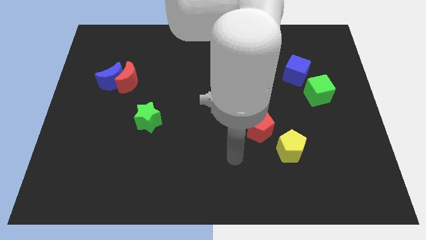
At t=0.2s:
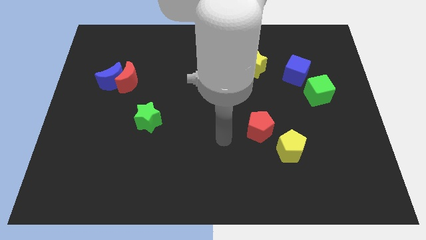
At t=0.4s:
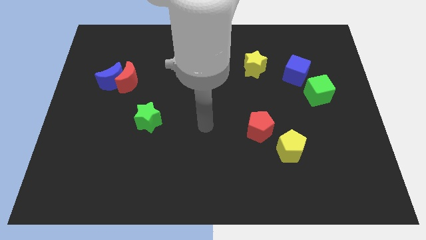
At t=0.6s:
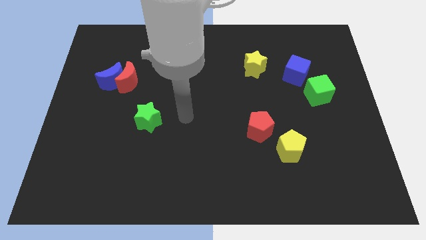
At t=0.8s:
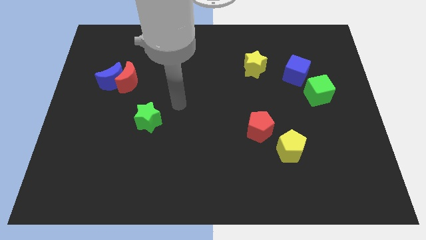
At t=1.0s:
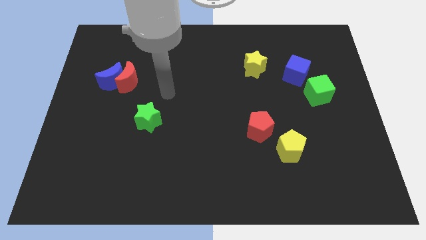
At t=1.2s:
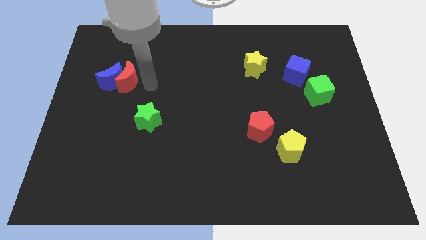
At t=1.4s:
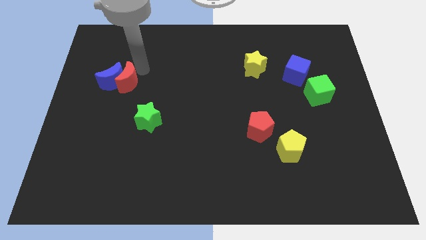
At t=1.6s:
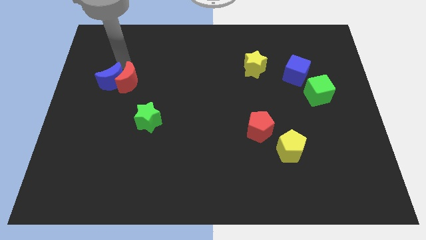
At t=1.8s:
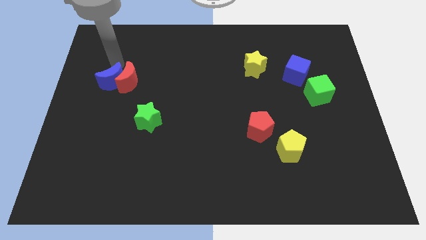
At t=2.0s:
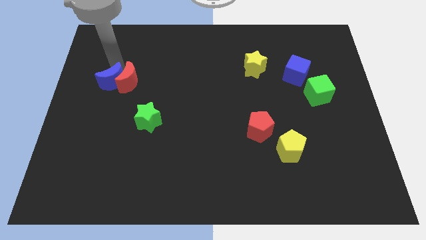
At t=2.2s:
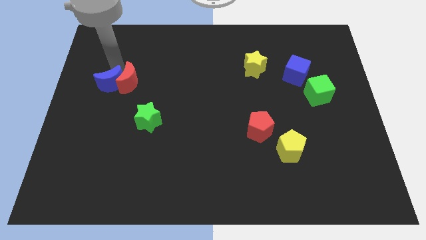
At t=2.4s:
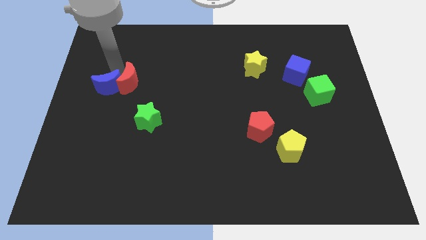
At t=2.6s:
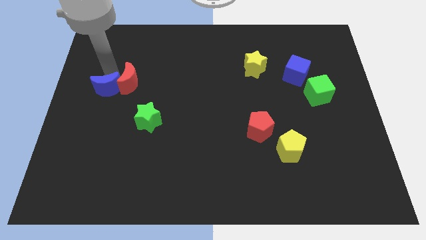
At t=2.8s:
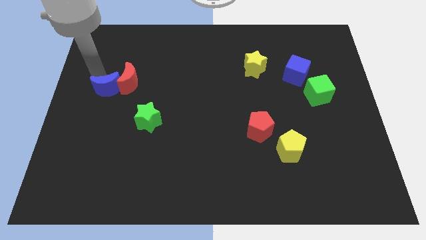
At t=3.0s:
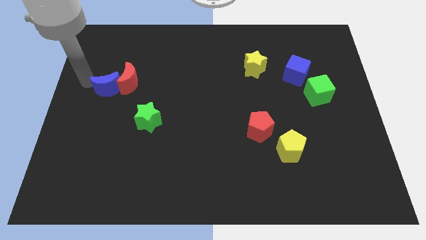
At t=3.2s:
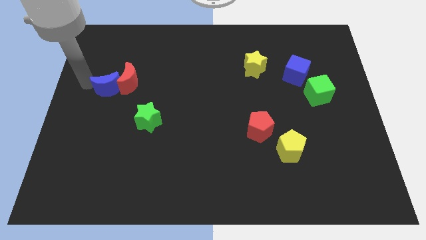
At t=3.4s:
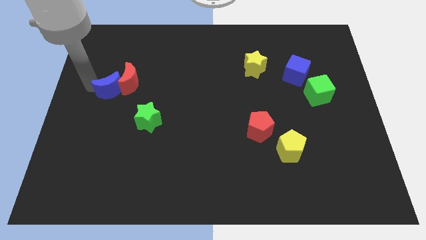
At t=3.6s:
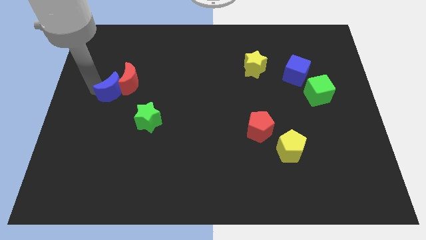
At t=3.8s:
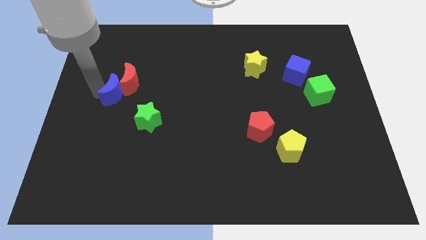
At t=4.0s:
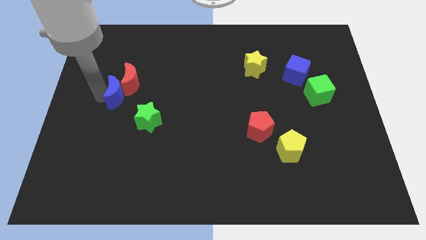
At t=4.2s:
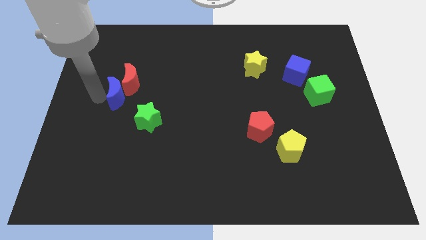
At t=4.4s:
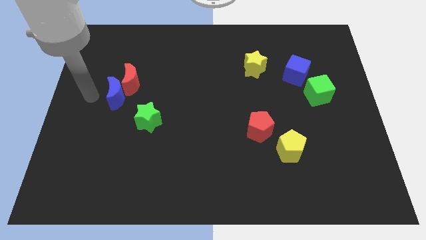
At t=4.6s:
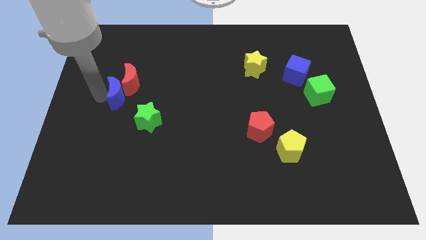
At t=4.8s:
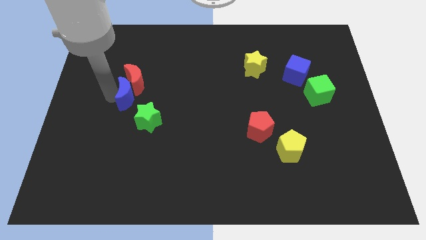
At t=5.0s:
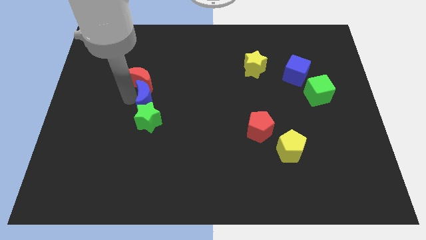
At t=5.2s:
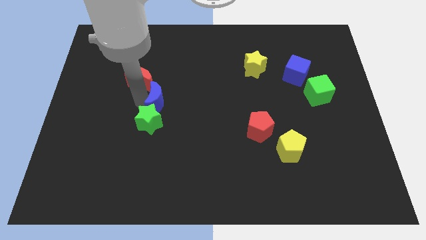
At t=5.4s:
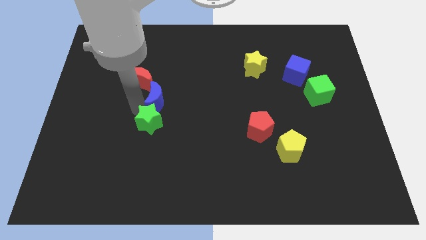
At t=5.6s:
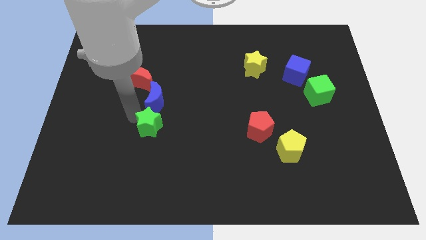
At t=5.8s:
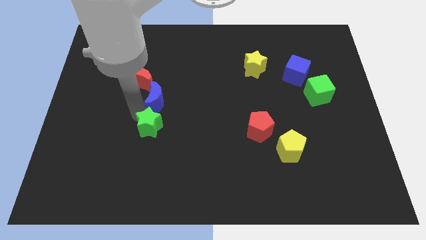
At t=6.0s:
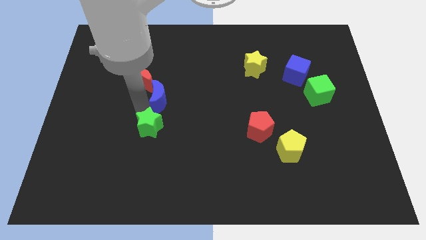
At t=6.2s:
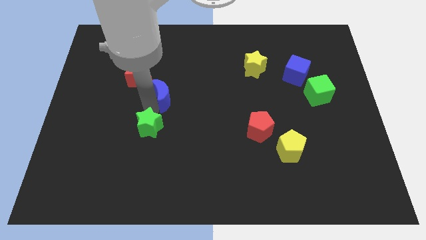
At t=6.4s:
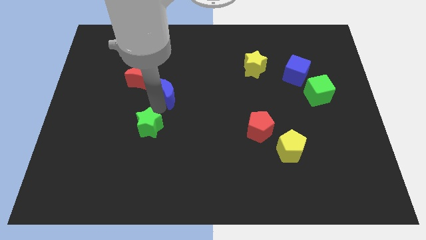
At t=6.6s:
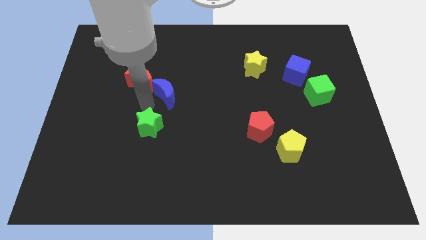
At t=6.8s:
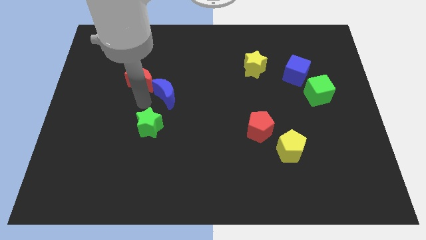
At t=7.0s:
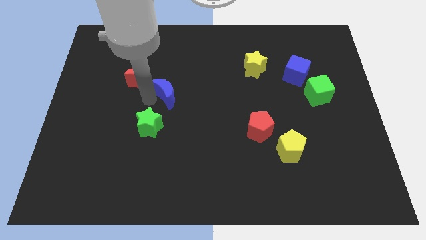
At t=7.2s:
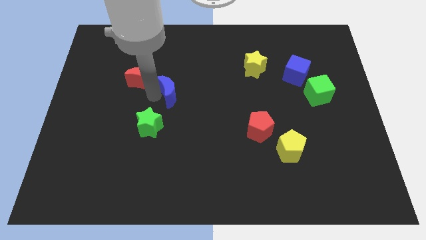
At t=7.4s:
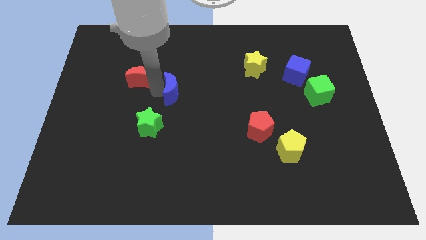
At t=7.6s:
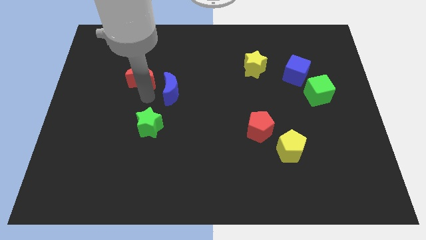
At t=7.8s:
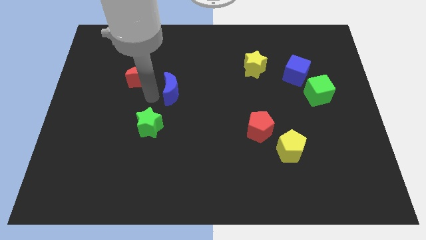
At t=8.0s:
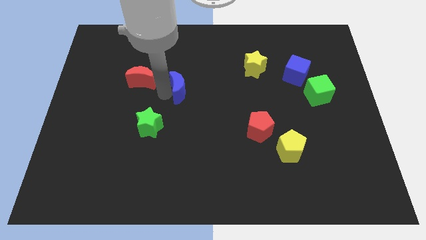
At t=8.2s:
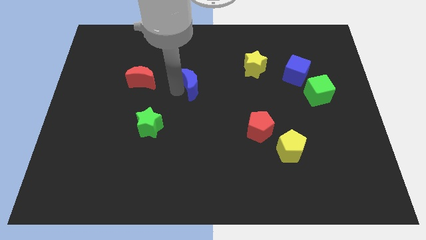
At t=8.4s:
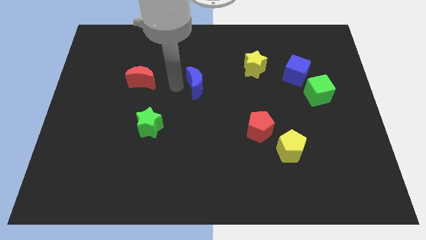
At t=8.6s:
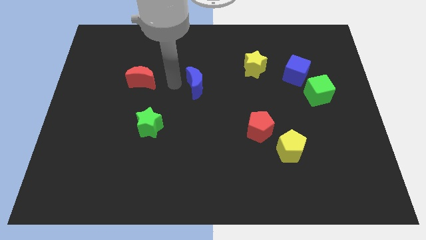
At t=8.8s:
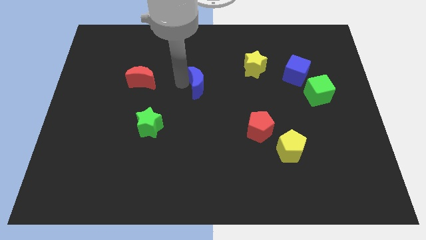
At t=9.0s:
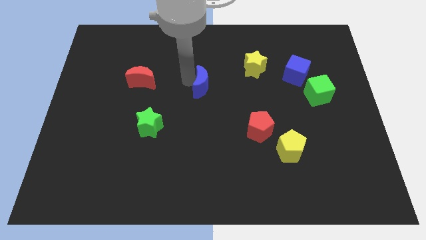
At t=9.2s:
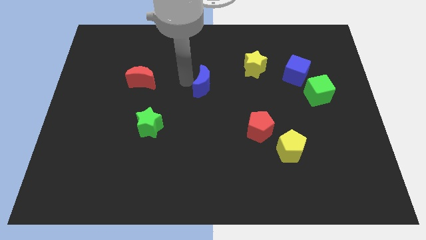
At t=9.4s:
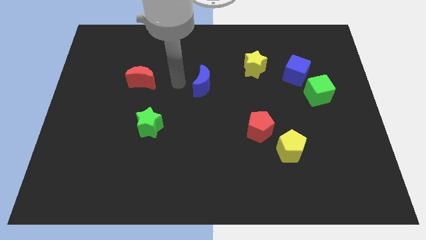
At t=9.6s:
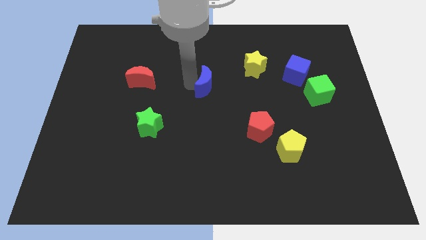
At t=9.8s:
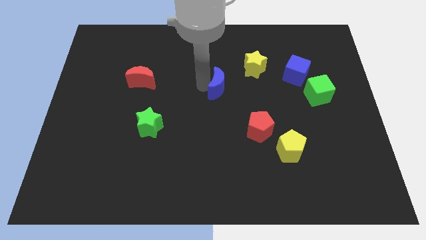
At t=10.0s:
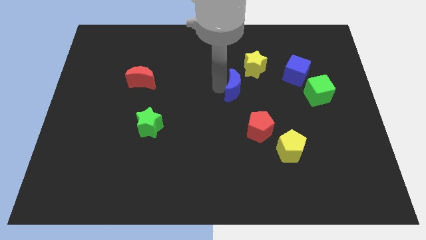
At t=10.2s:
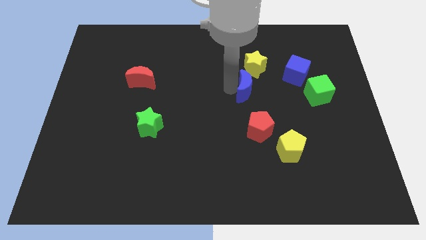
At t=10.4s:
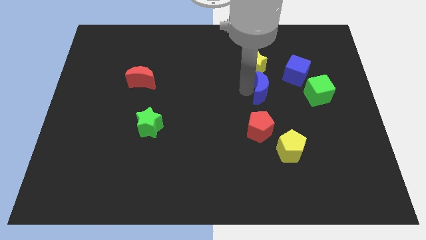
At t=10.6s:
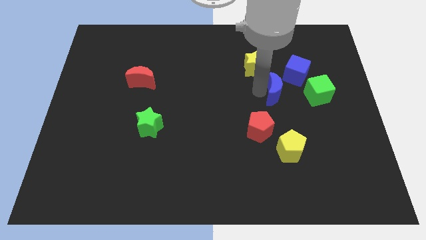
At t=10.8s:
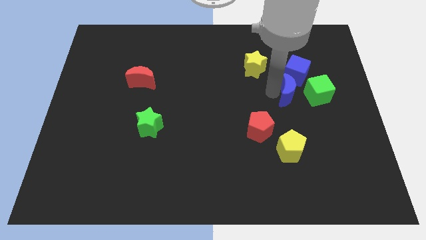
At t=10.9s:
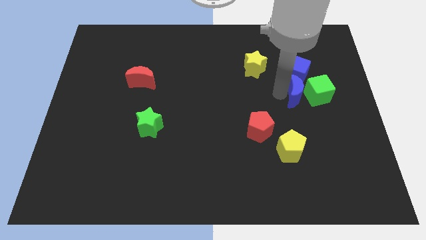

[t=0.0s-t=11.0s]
put the blue moon next to the green cube

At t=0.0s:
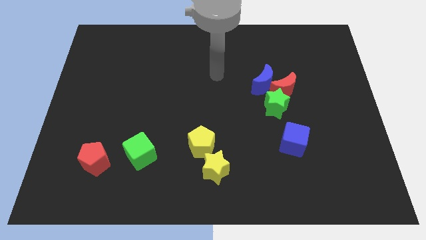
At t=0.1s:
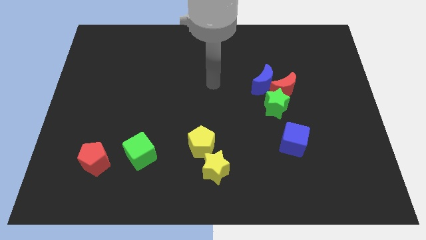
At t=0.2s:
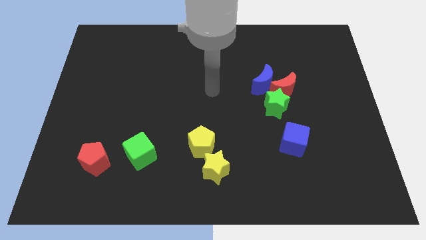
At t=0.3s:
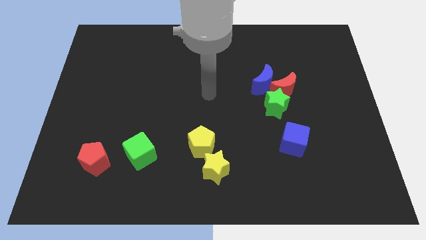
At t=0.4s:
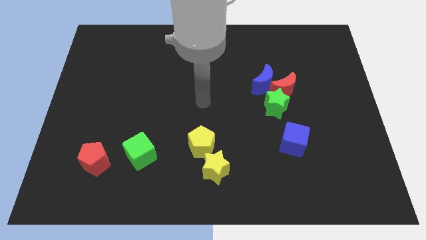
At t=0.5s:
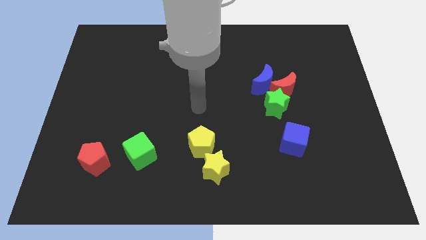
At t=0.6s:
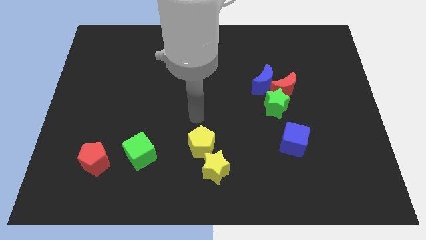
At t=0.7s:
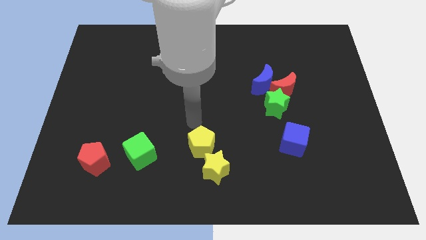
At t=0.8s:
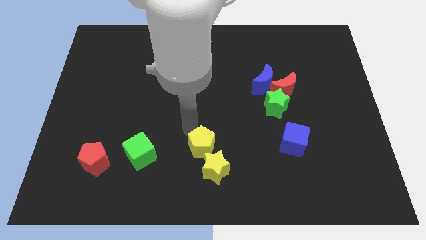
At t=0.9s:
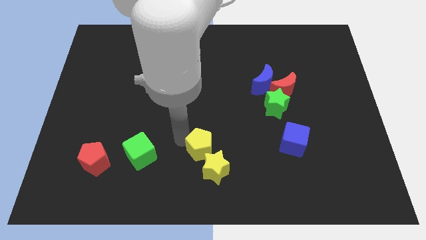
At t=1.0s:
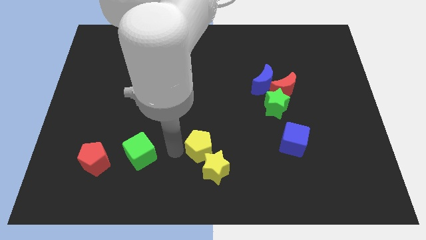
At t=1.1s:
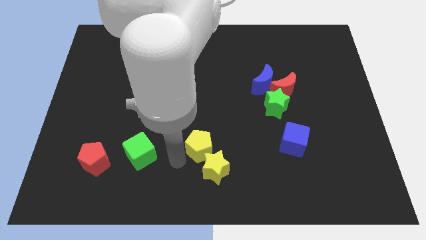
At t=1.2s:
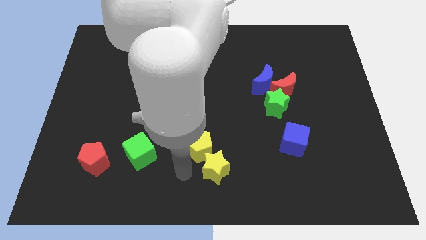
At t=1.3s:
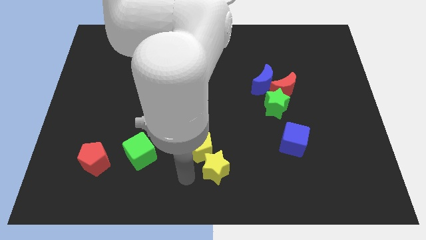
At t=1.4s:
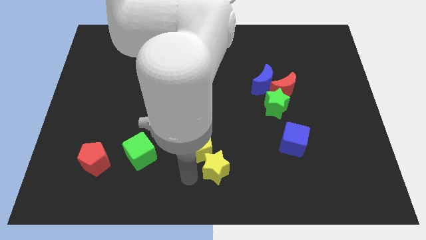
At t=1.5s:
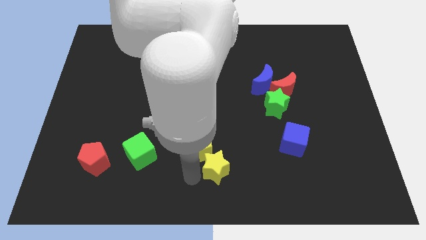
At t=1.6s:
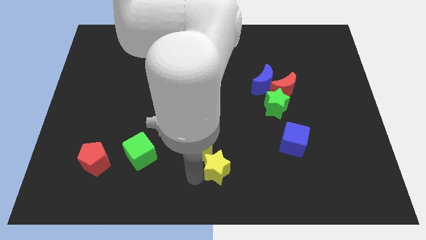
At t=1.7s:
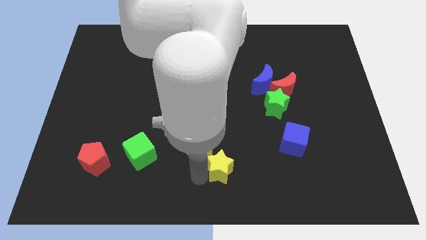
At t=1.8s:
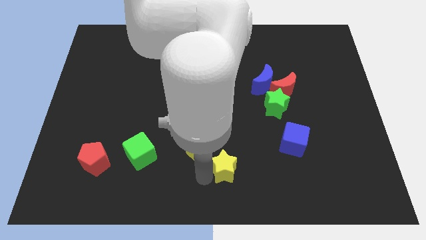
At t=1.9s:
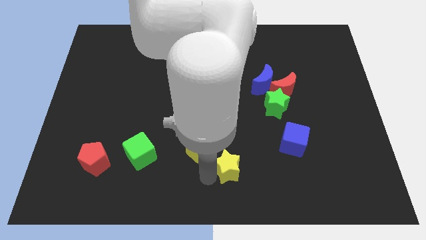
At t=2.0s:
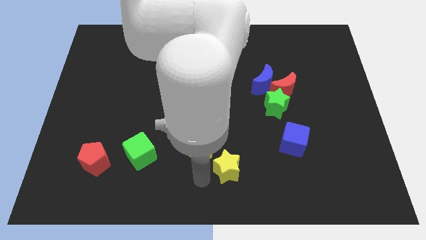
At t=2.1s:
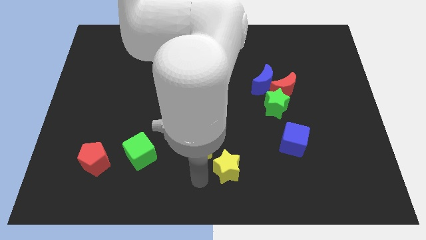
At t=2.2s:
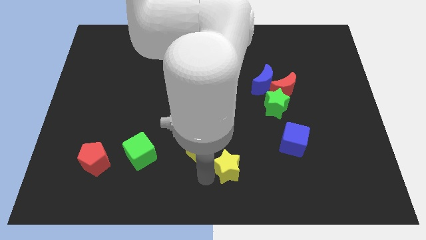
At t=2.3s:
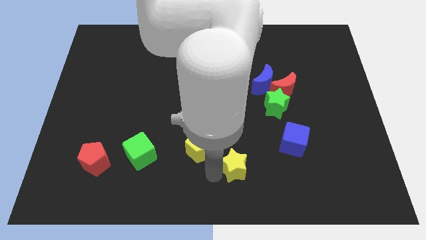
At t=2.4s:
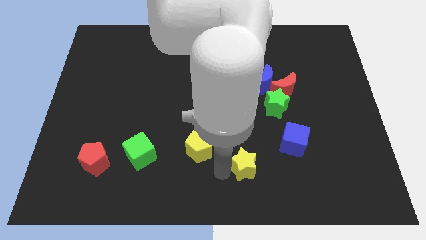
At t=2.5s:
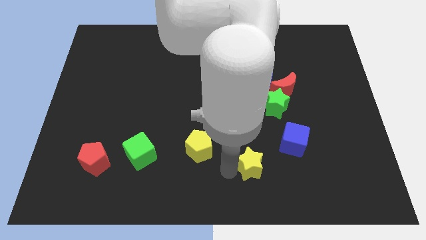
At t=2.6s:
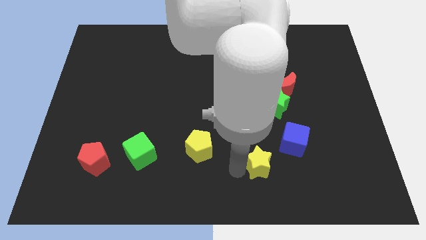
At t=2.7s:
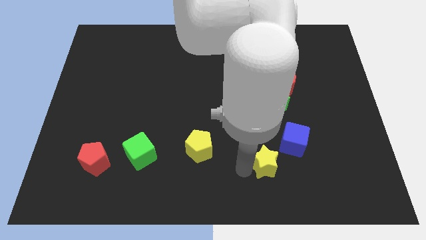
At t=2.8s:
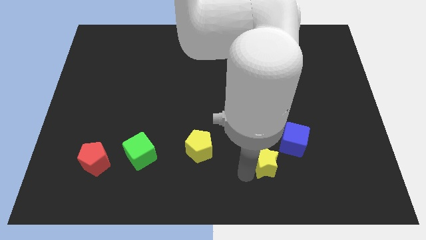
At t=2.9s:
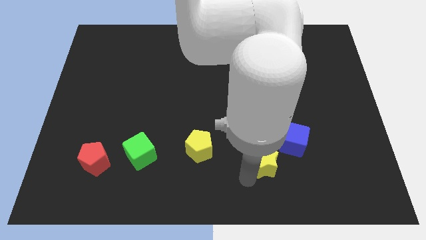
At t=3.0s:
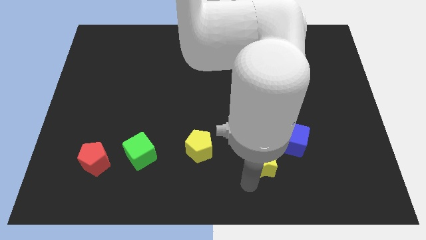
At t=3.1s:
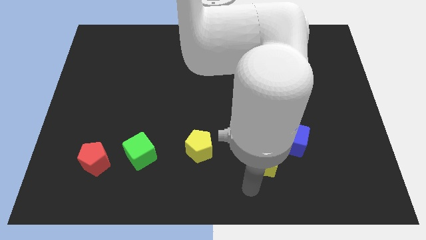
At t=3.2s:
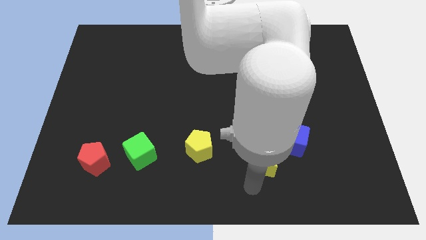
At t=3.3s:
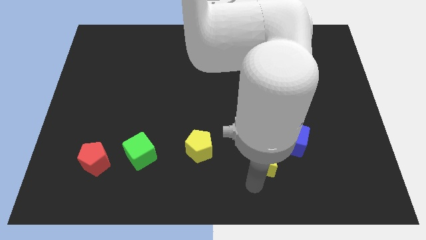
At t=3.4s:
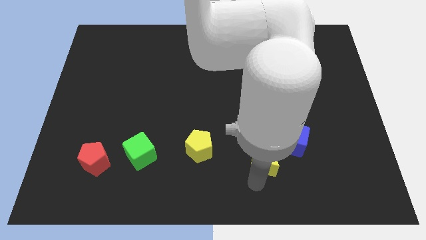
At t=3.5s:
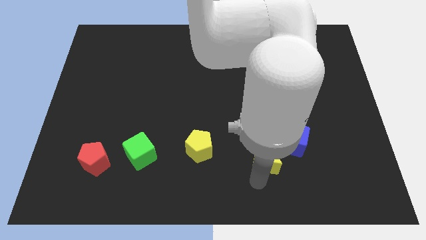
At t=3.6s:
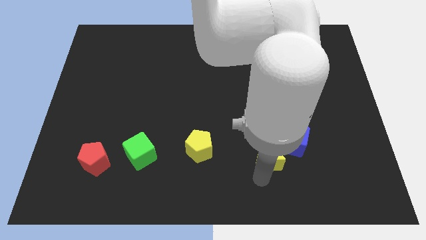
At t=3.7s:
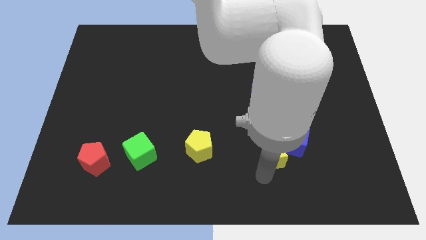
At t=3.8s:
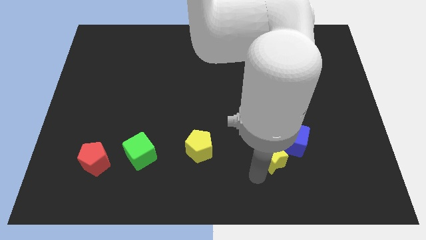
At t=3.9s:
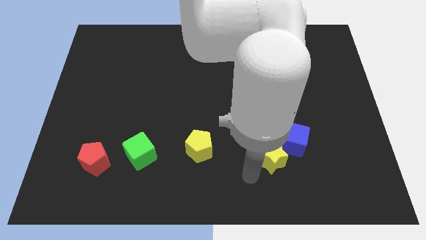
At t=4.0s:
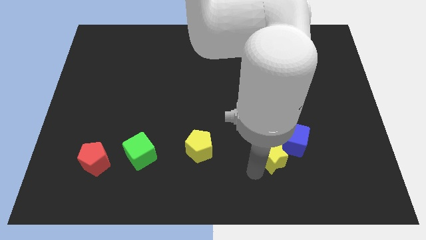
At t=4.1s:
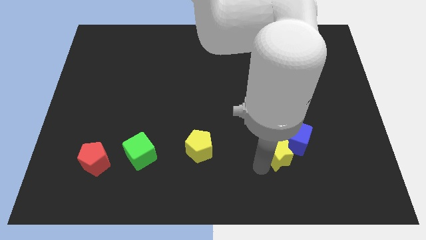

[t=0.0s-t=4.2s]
put the yellow star close to the blue cube
